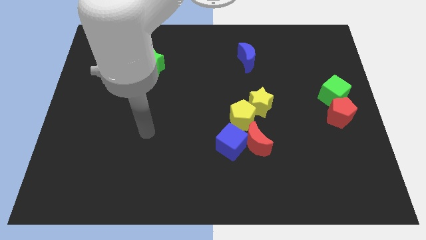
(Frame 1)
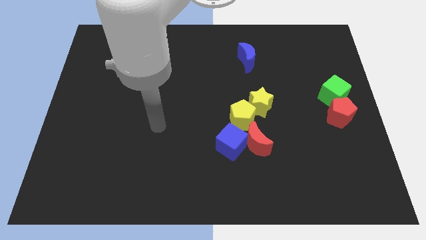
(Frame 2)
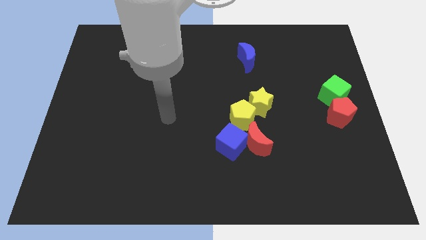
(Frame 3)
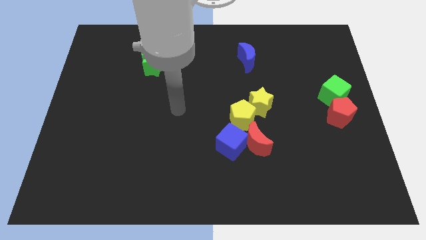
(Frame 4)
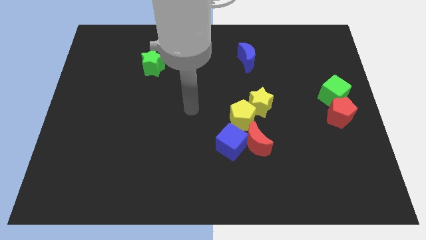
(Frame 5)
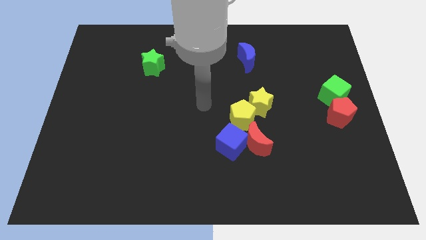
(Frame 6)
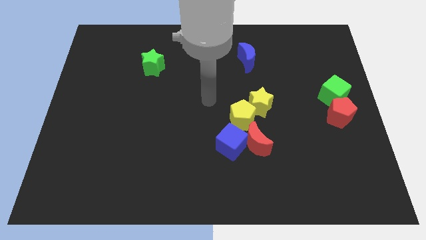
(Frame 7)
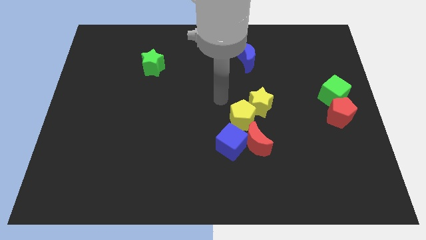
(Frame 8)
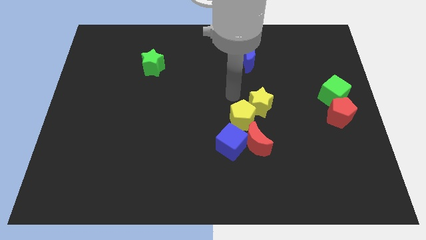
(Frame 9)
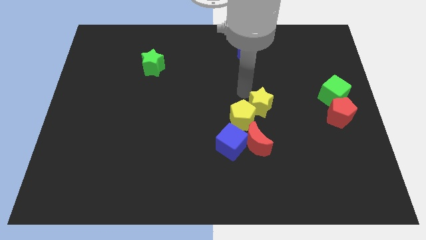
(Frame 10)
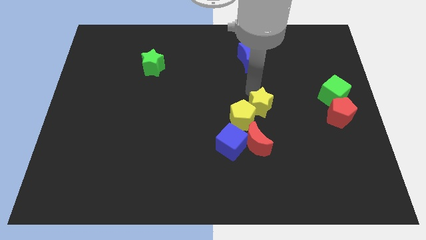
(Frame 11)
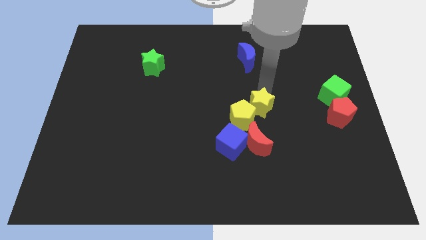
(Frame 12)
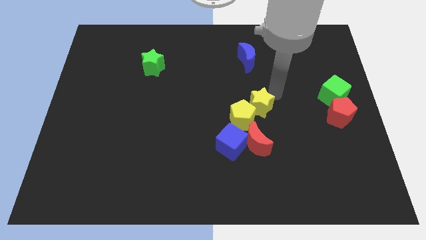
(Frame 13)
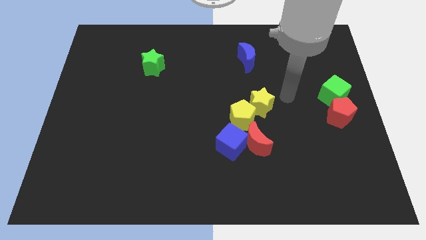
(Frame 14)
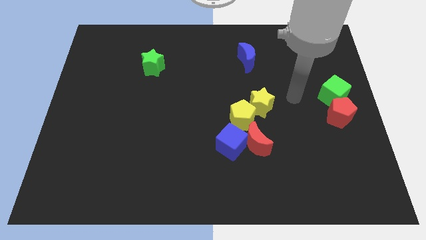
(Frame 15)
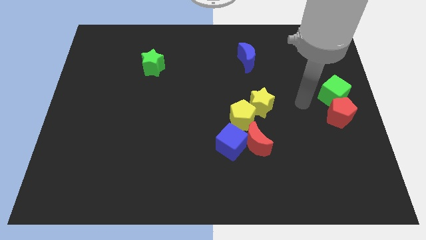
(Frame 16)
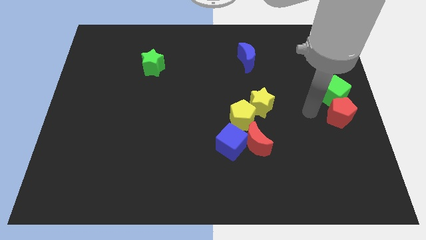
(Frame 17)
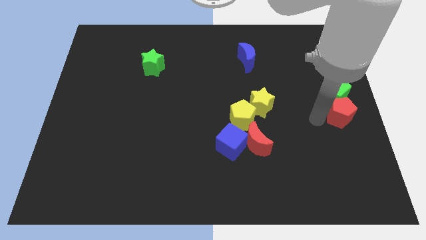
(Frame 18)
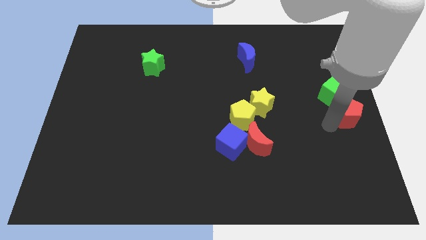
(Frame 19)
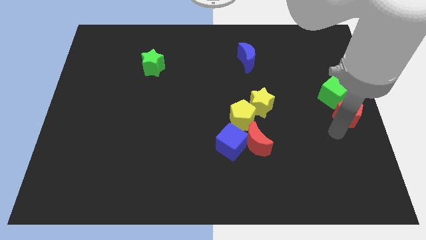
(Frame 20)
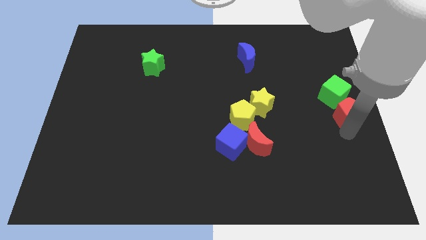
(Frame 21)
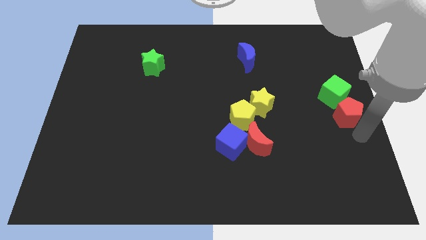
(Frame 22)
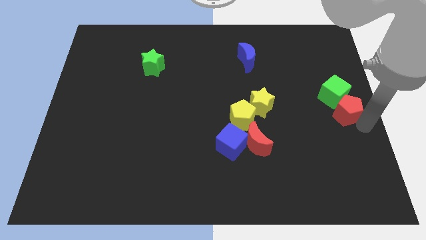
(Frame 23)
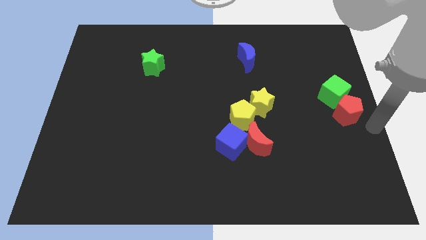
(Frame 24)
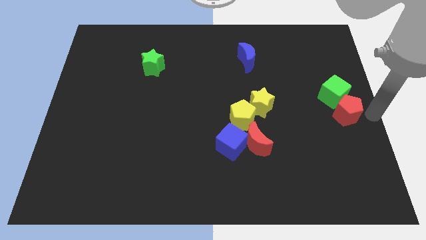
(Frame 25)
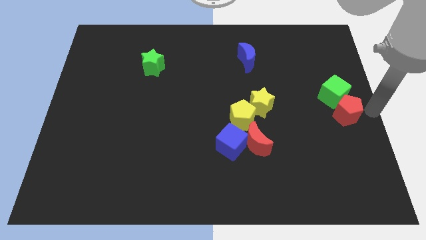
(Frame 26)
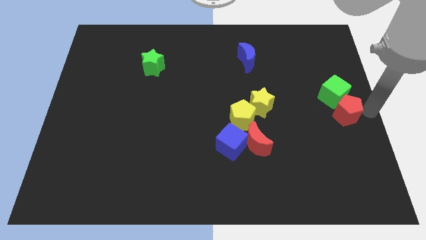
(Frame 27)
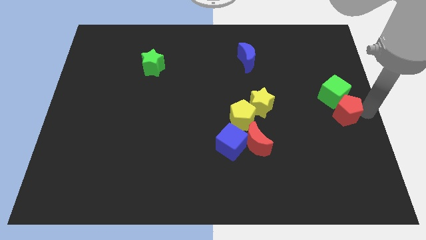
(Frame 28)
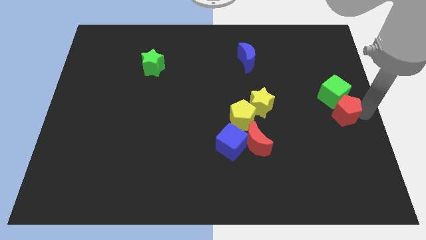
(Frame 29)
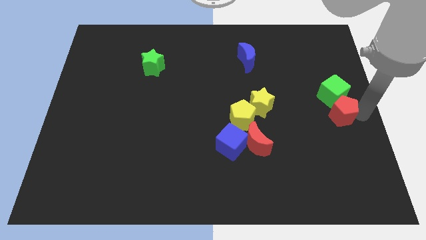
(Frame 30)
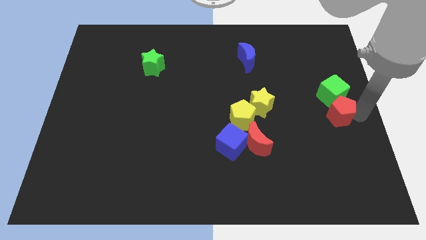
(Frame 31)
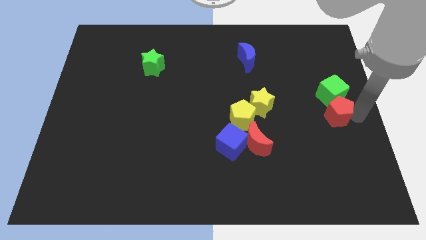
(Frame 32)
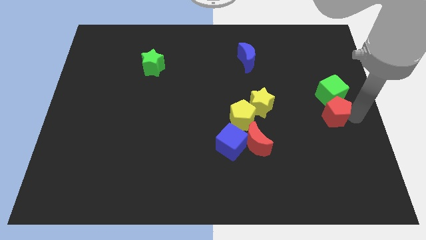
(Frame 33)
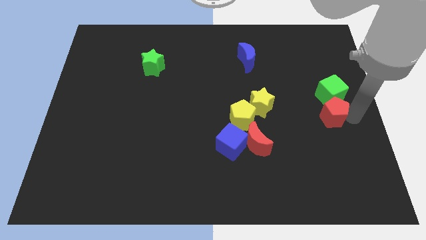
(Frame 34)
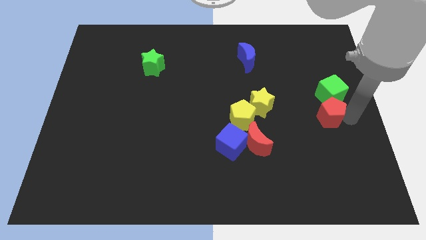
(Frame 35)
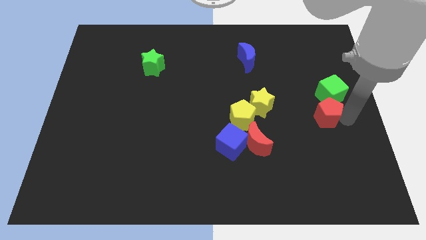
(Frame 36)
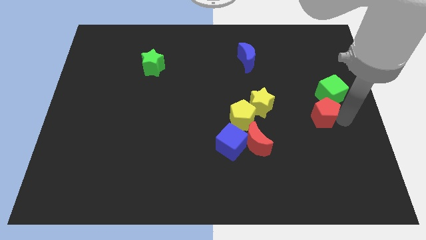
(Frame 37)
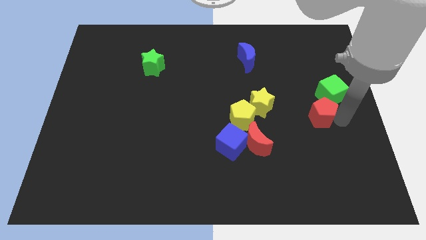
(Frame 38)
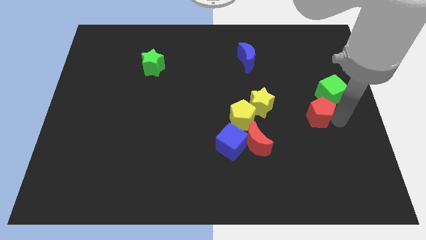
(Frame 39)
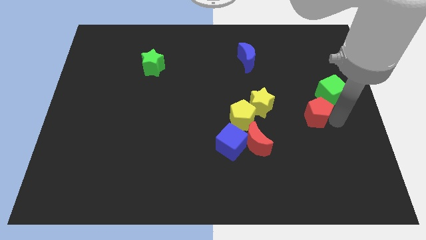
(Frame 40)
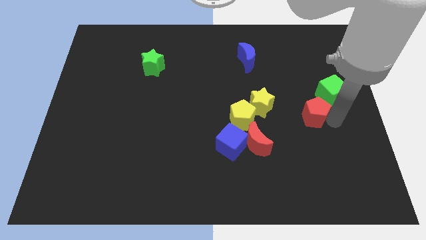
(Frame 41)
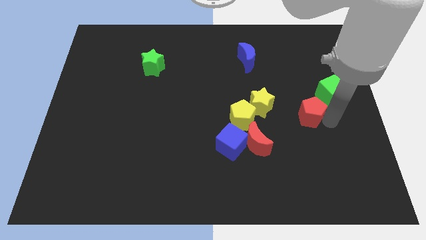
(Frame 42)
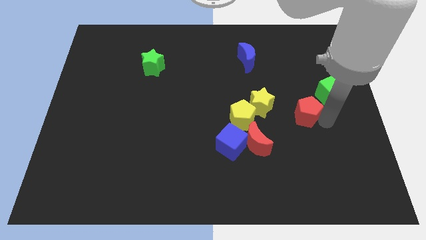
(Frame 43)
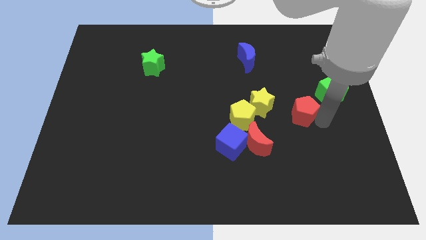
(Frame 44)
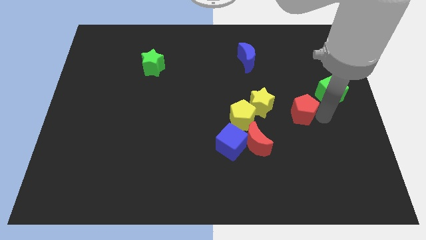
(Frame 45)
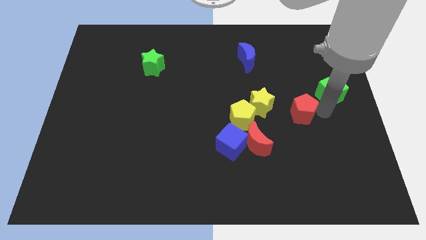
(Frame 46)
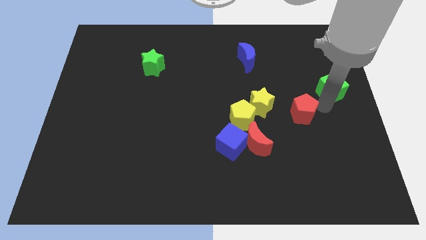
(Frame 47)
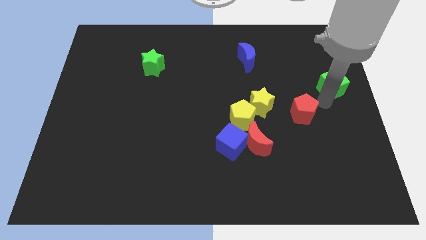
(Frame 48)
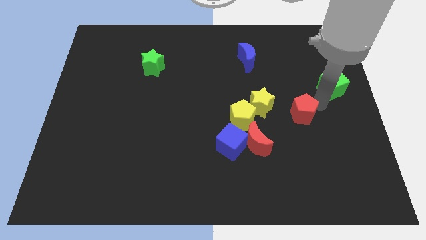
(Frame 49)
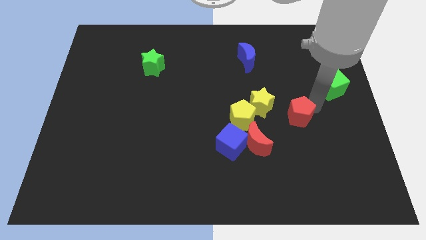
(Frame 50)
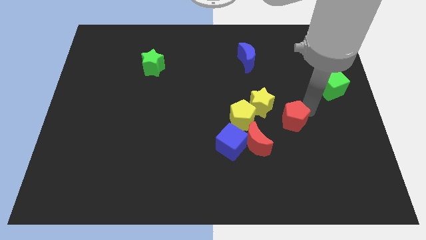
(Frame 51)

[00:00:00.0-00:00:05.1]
slide the red pentagon to the top right side of the red moon

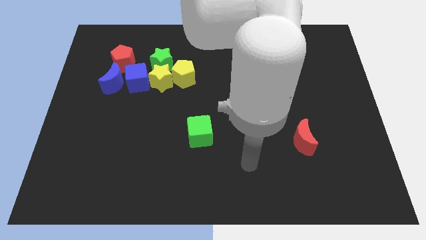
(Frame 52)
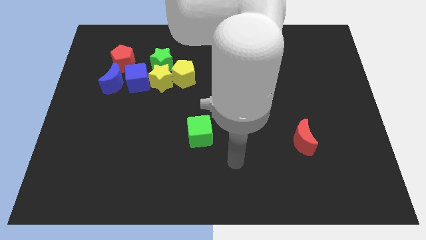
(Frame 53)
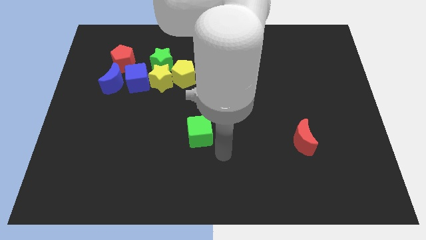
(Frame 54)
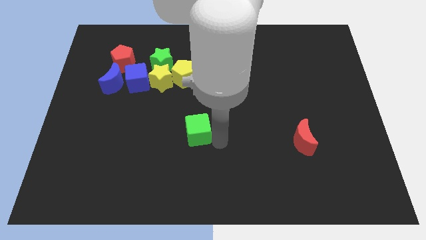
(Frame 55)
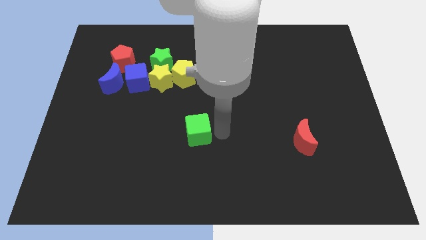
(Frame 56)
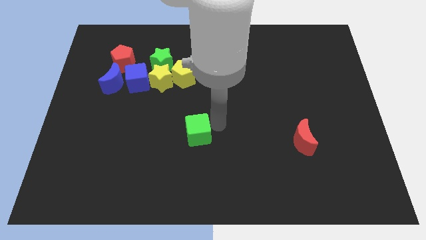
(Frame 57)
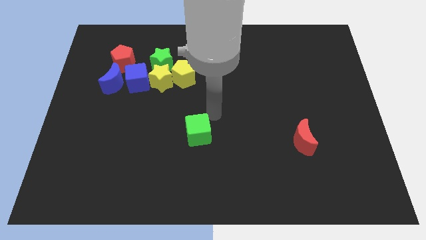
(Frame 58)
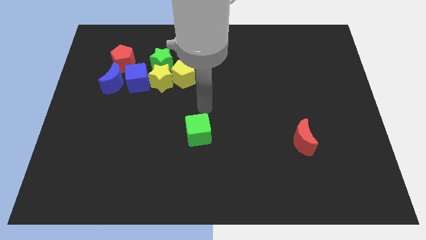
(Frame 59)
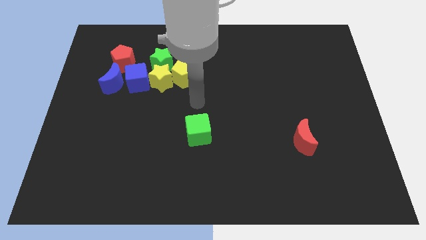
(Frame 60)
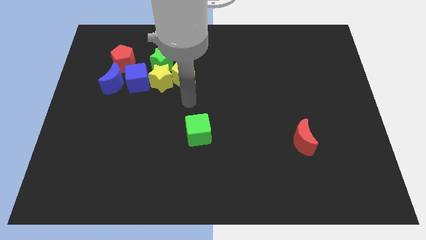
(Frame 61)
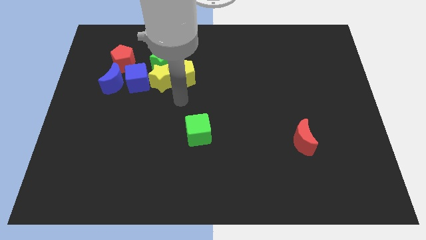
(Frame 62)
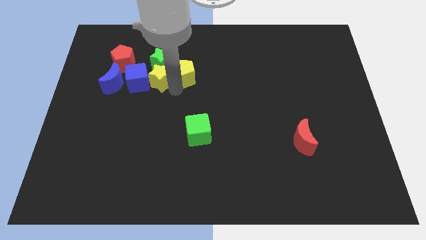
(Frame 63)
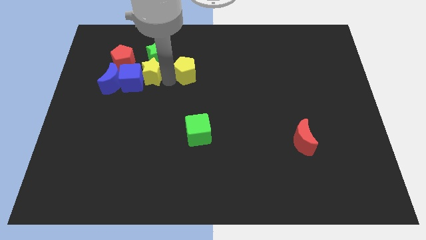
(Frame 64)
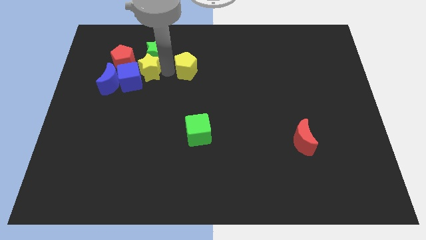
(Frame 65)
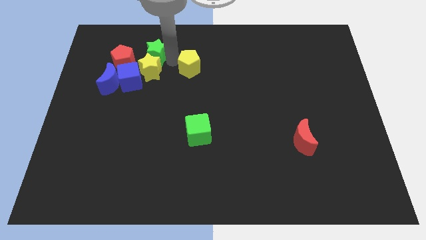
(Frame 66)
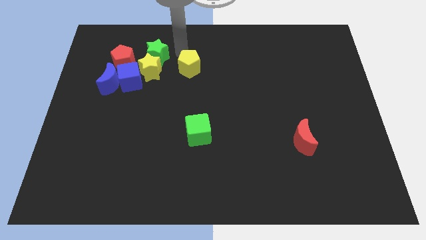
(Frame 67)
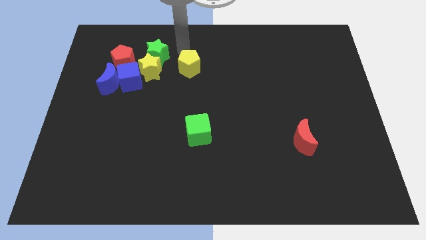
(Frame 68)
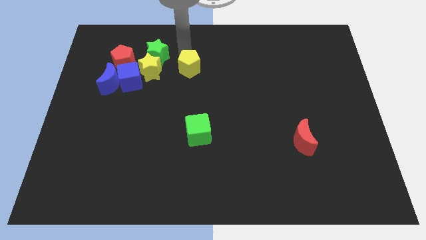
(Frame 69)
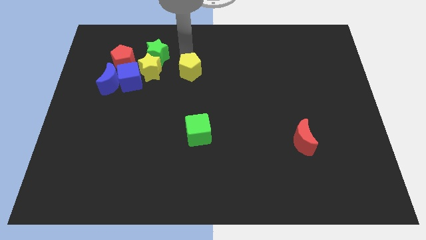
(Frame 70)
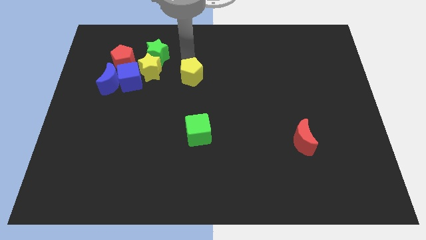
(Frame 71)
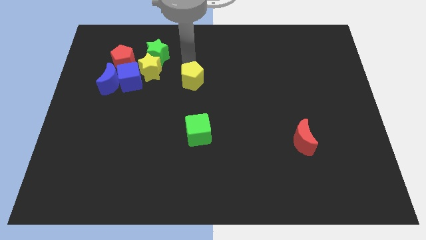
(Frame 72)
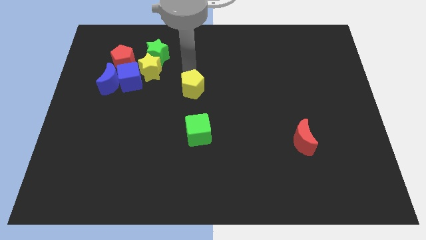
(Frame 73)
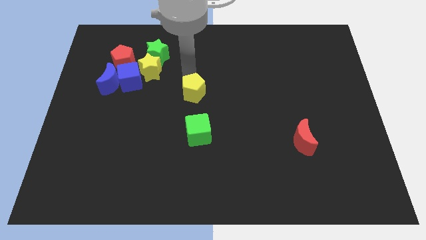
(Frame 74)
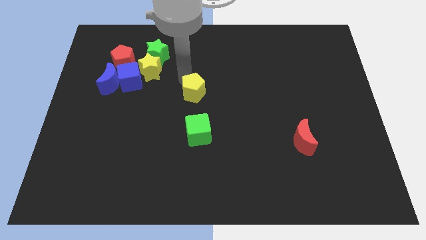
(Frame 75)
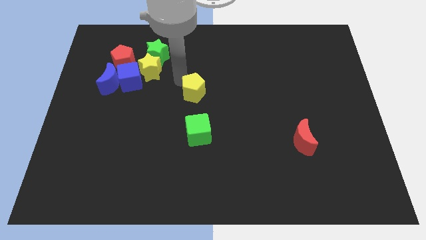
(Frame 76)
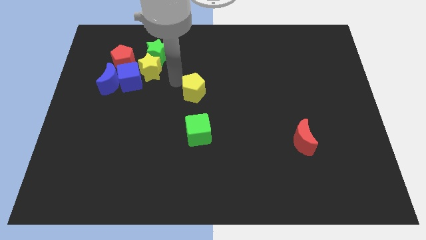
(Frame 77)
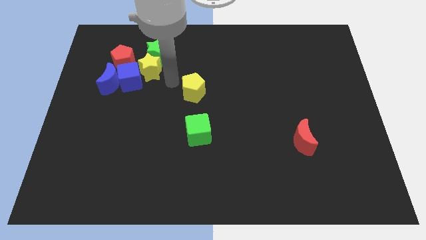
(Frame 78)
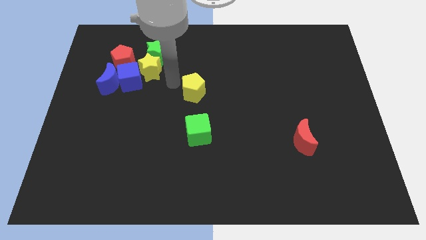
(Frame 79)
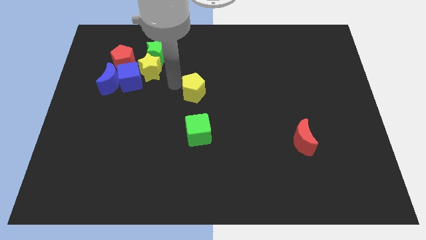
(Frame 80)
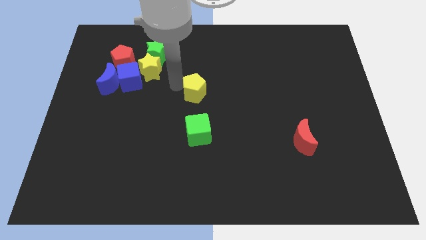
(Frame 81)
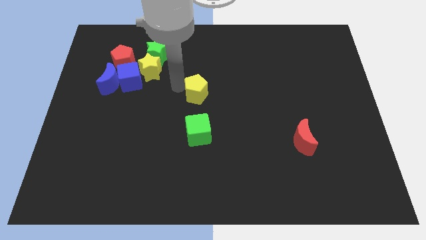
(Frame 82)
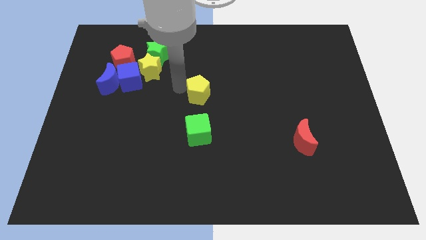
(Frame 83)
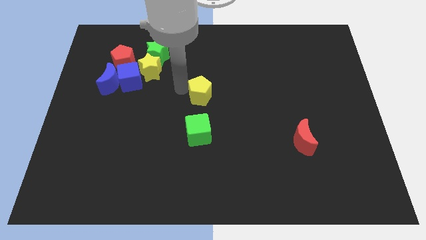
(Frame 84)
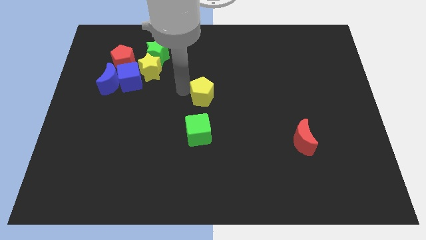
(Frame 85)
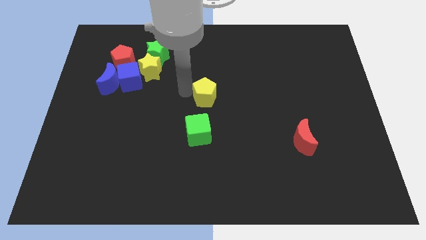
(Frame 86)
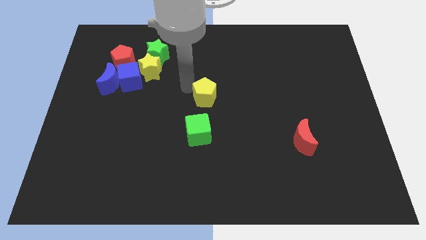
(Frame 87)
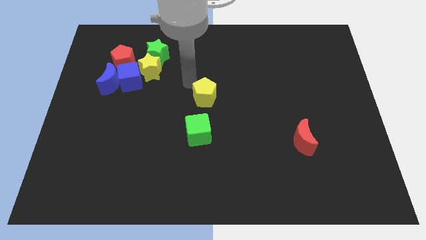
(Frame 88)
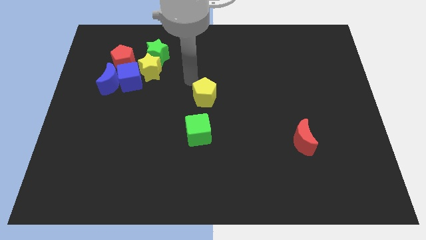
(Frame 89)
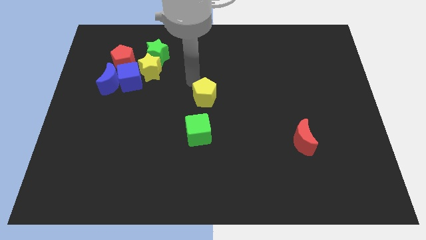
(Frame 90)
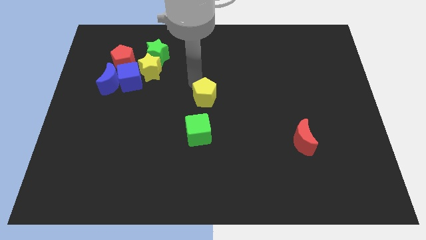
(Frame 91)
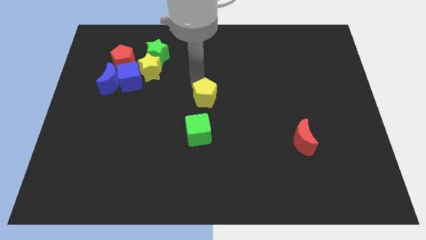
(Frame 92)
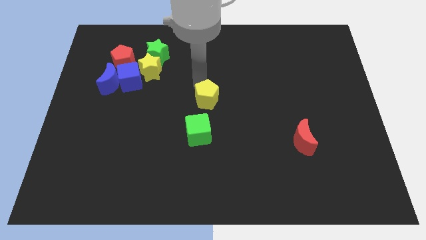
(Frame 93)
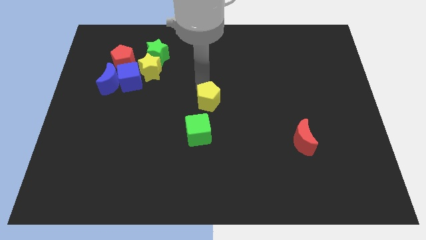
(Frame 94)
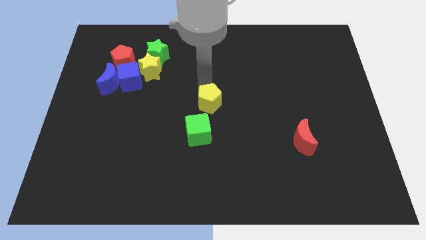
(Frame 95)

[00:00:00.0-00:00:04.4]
push the yellow pentagon to the top right of the green cube
